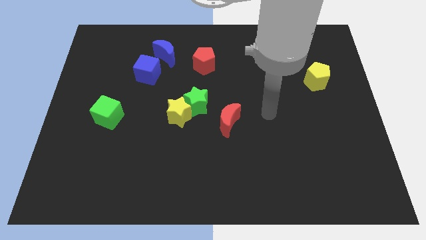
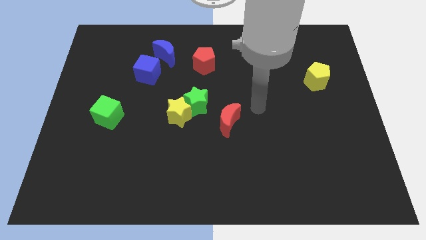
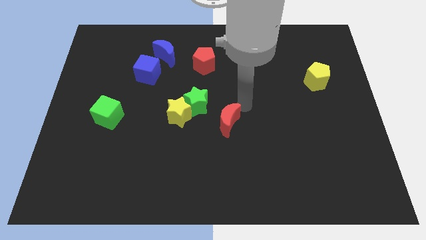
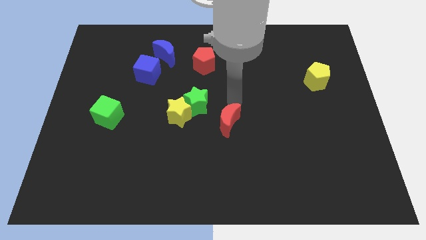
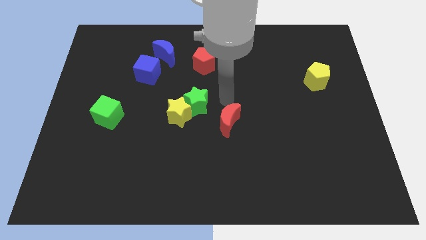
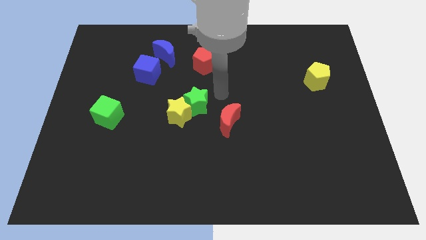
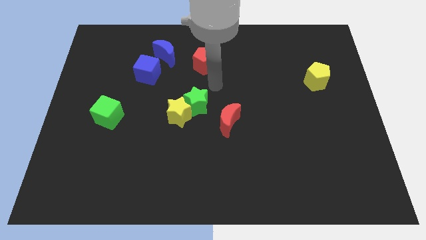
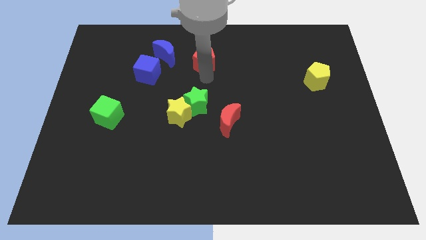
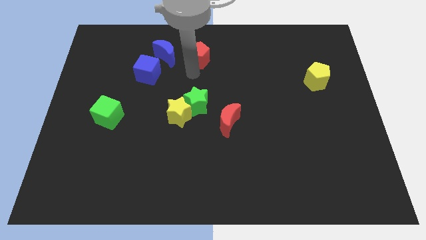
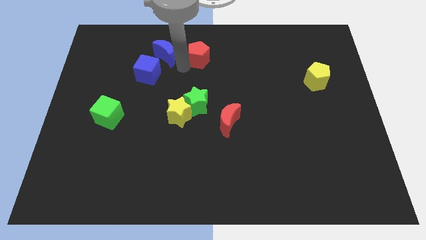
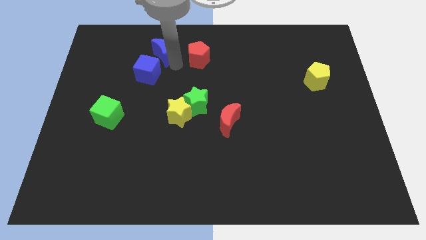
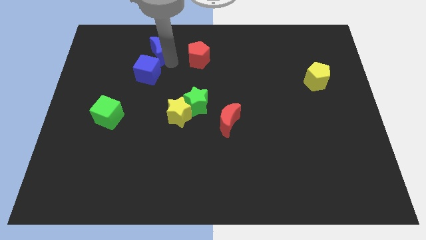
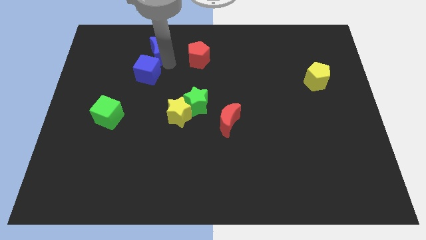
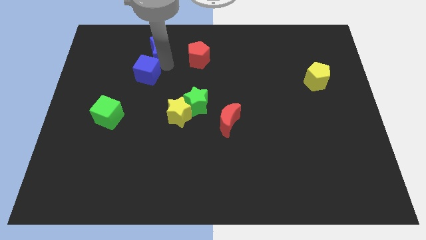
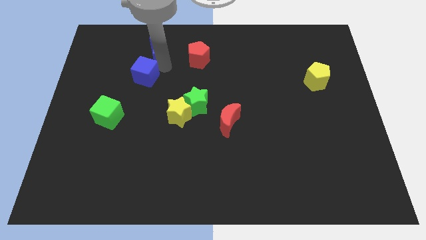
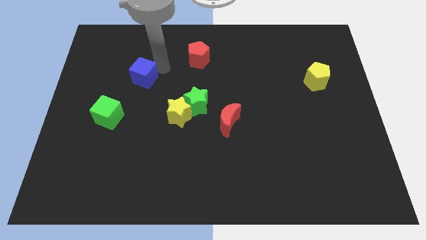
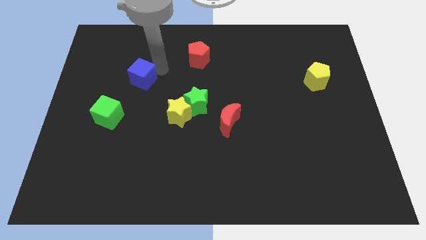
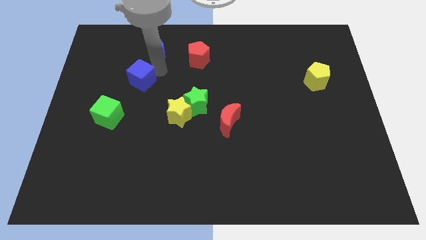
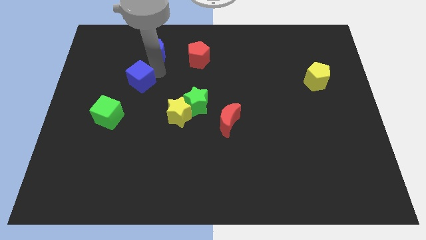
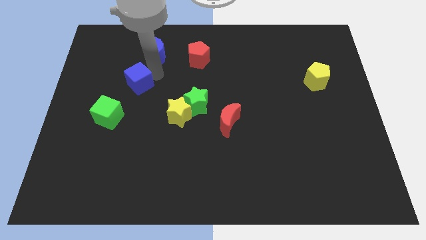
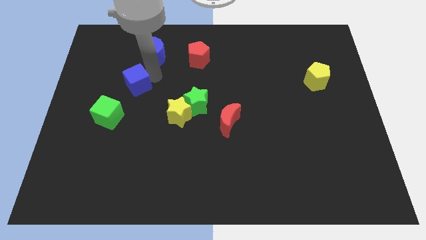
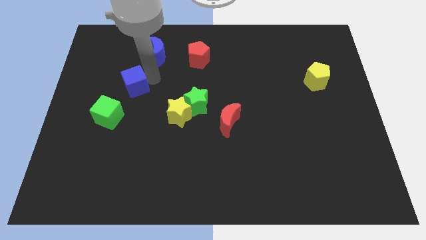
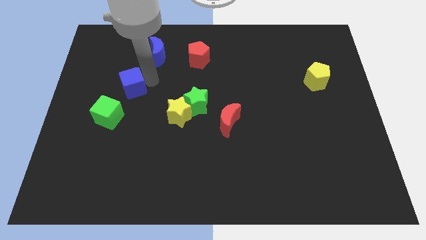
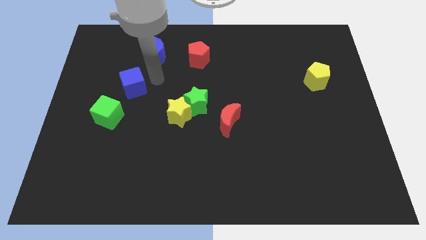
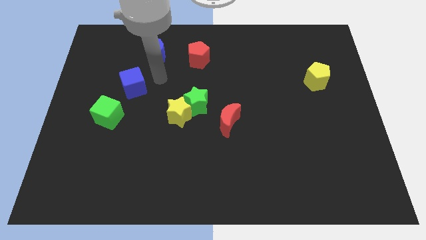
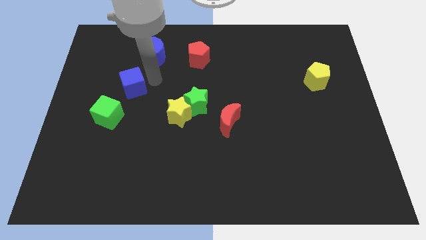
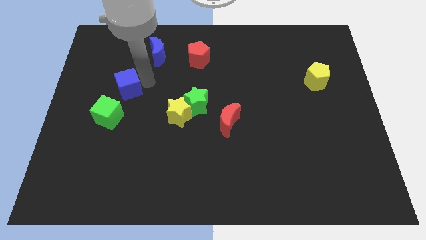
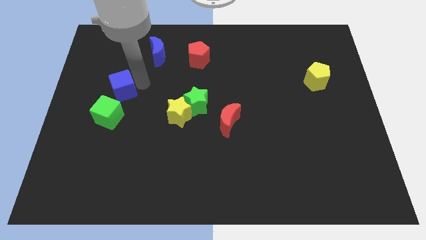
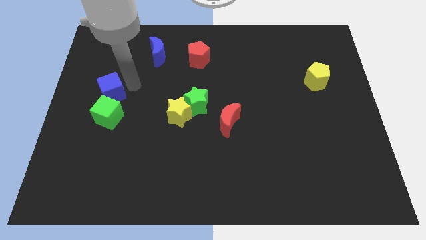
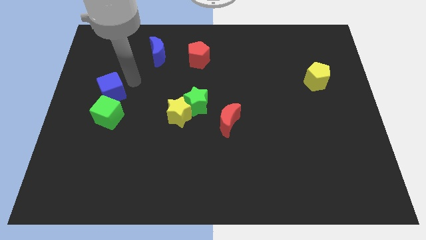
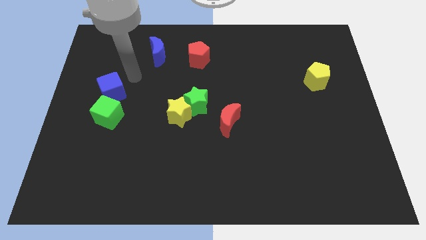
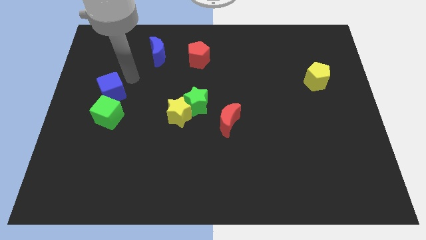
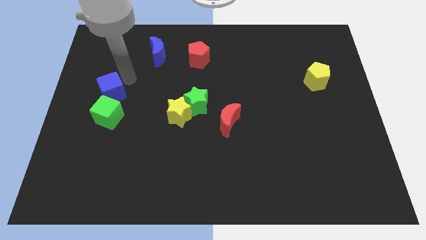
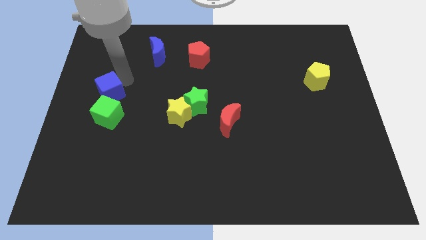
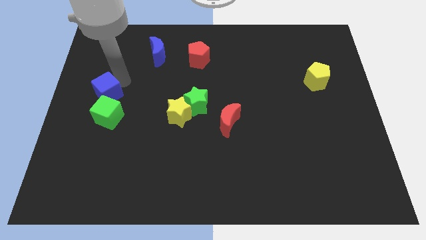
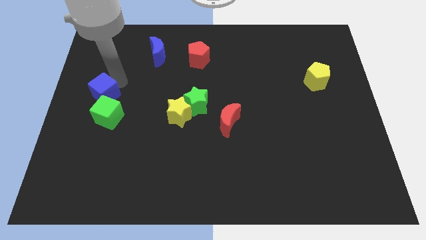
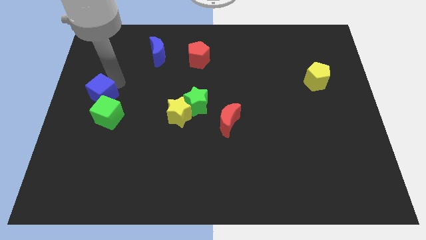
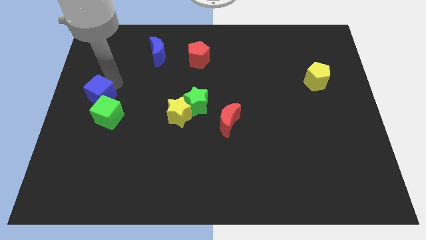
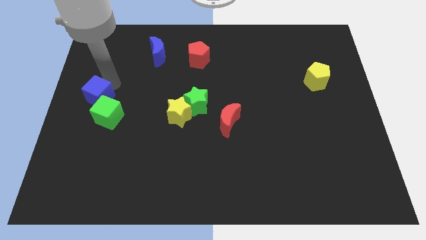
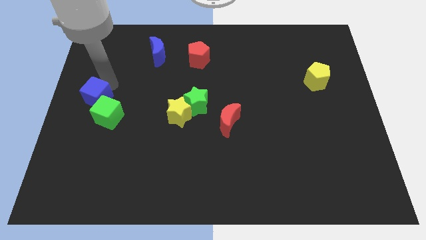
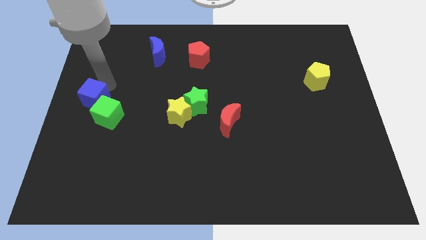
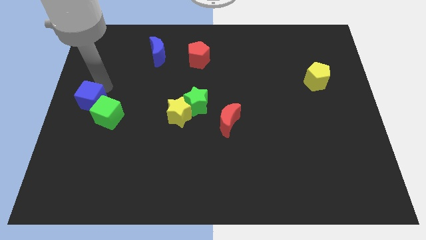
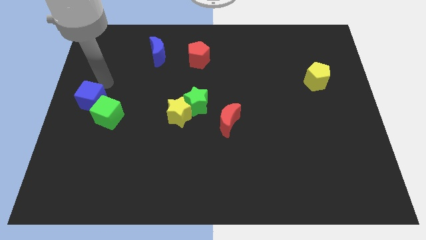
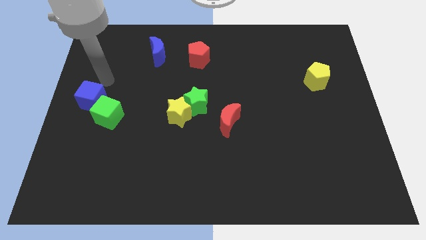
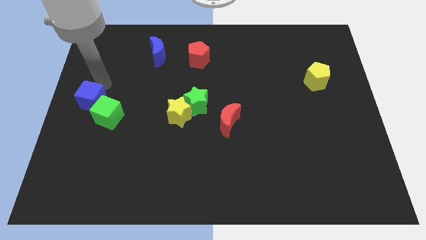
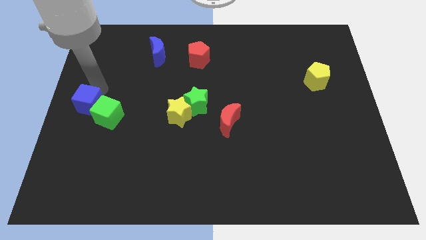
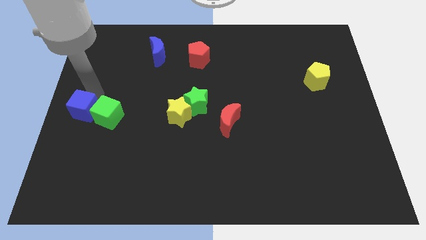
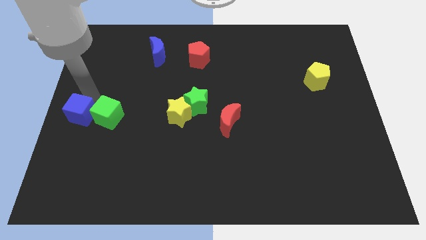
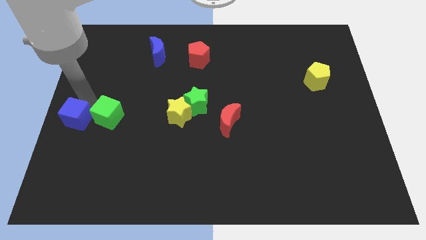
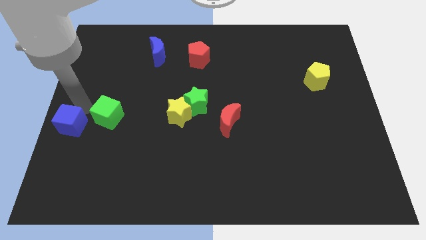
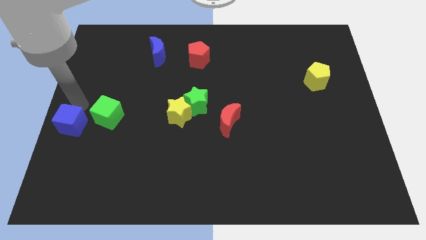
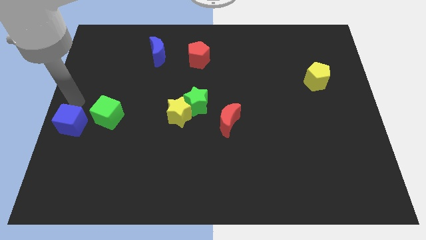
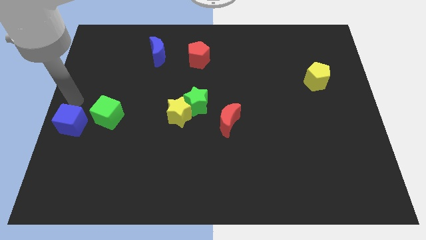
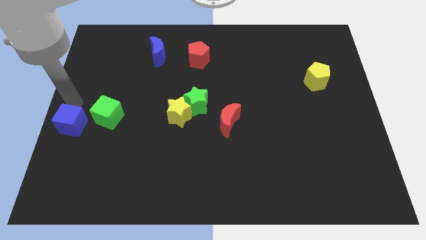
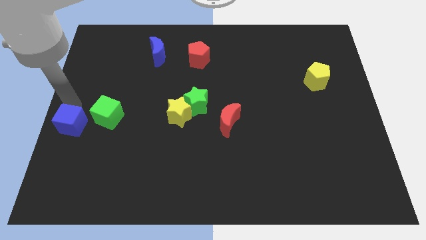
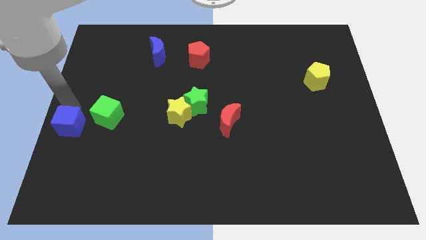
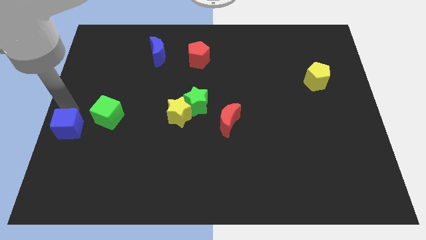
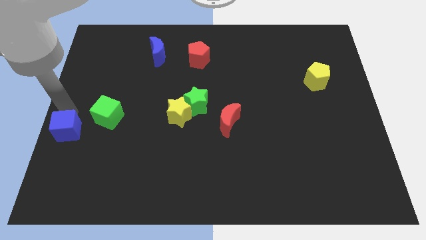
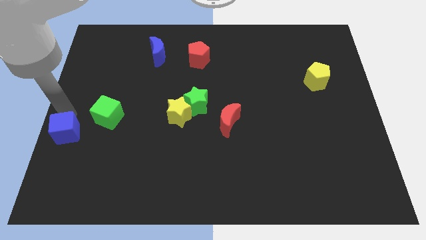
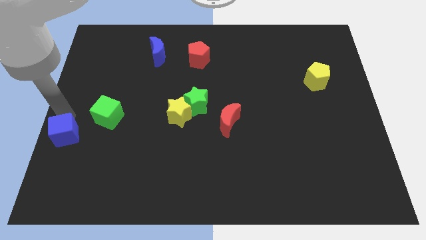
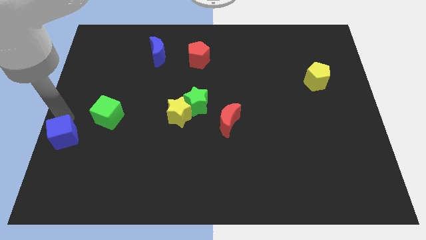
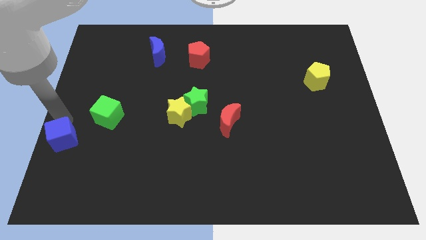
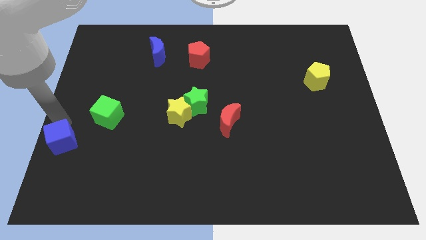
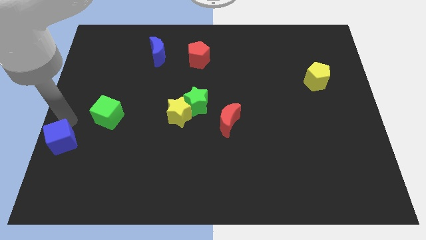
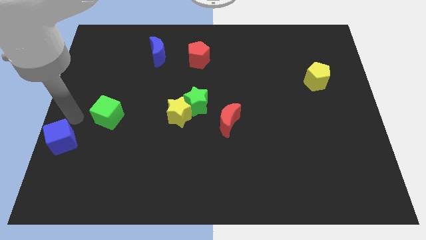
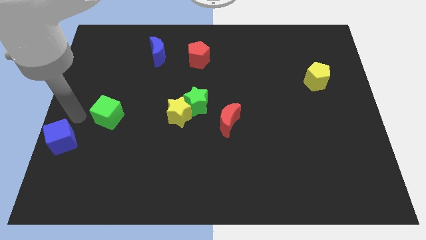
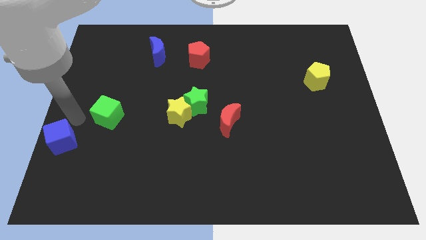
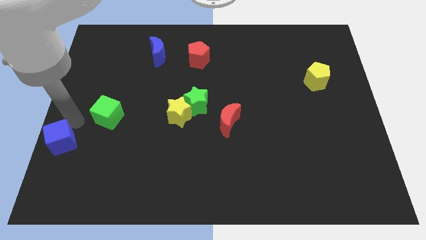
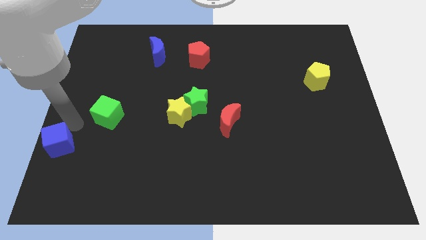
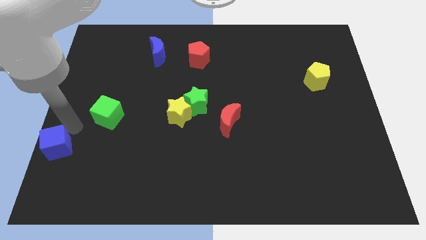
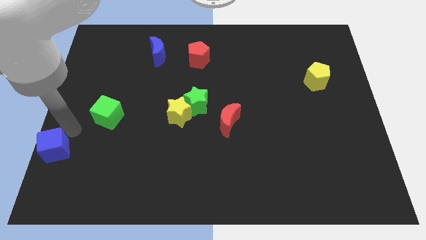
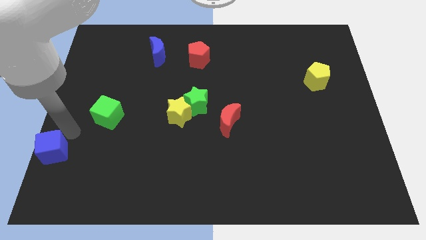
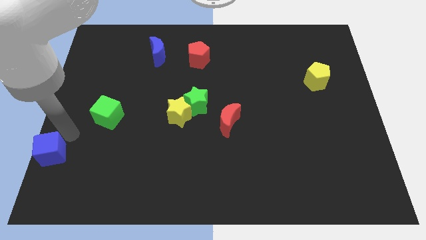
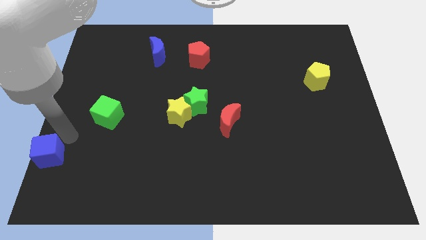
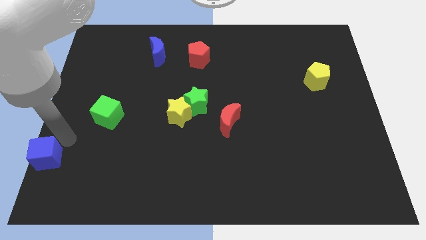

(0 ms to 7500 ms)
move the blue cube to the lower left corner

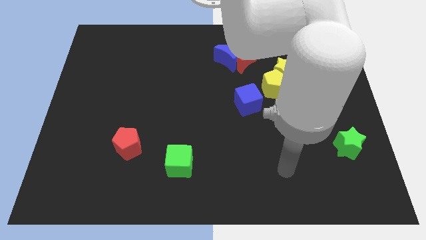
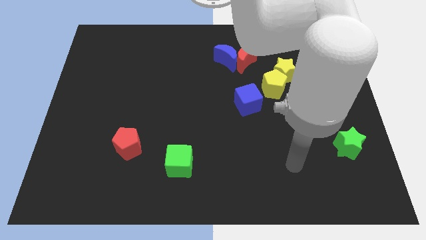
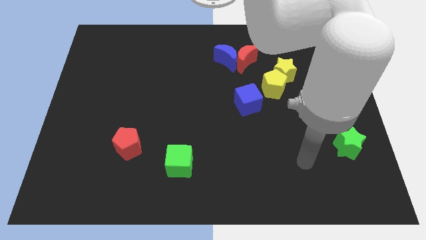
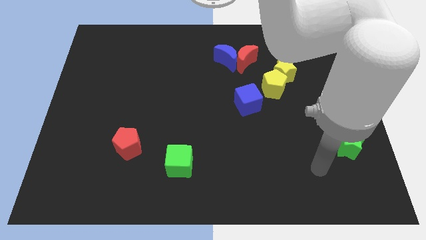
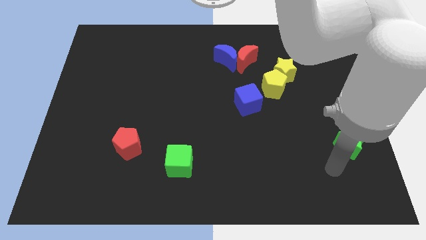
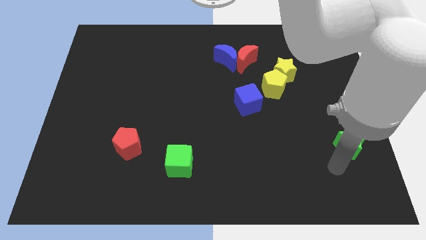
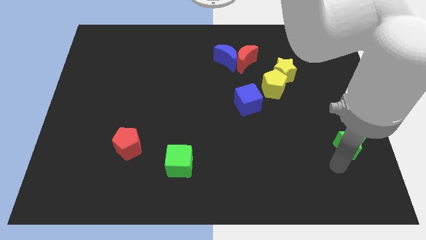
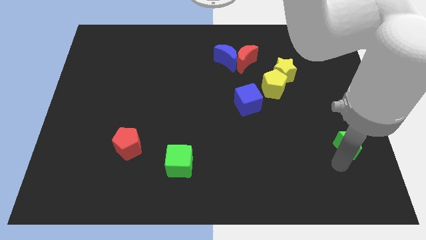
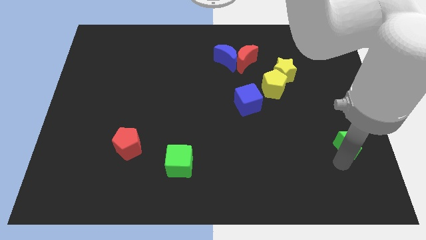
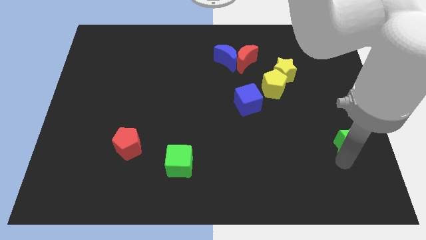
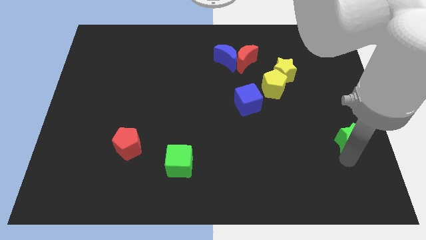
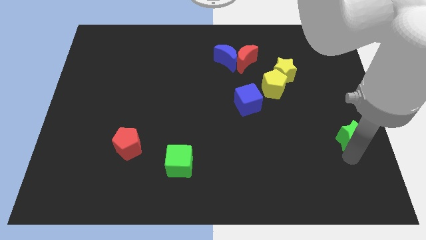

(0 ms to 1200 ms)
push the green star to the right side
